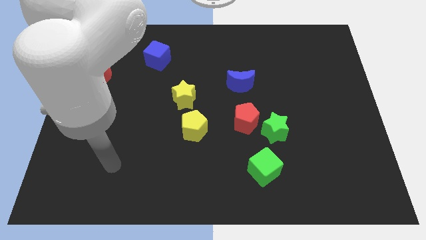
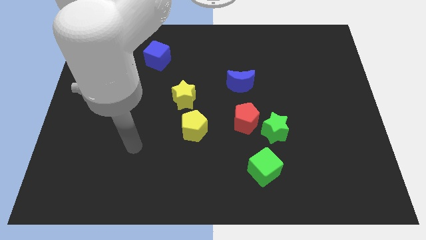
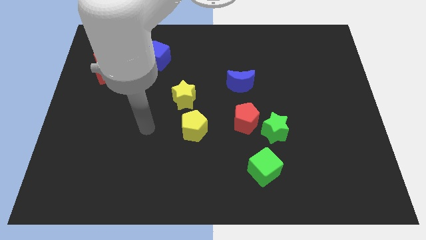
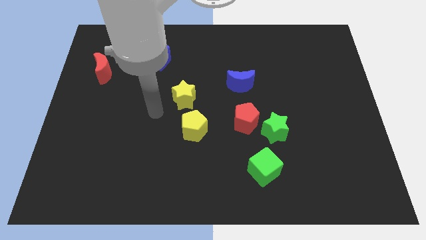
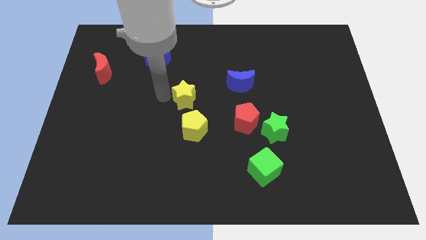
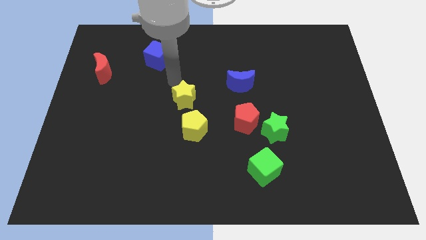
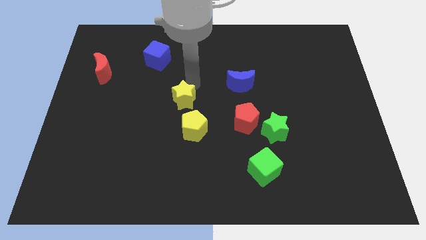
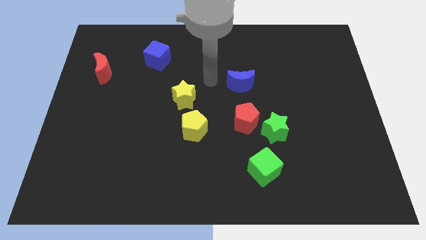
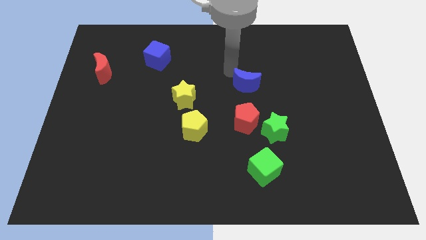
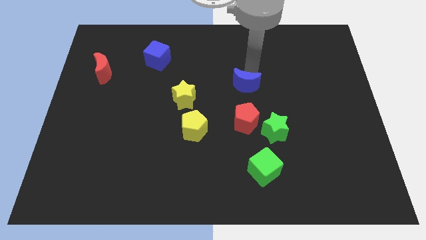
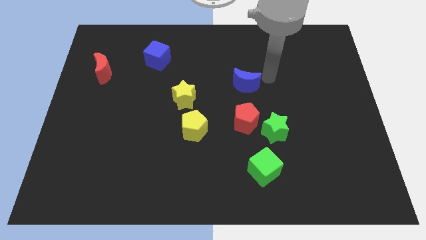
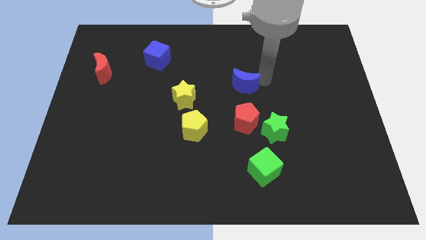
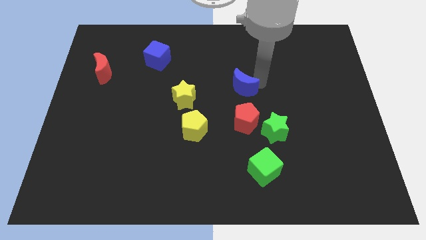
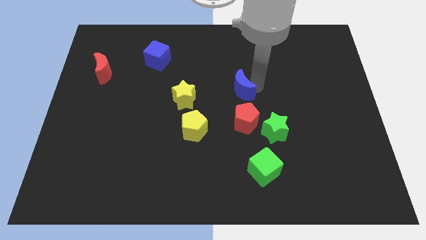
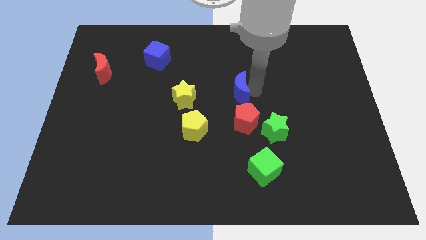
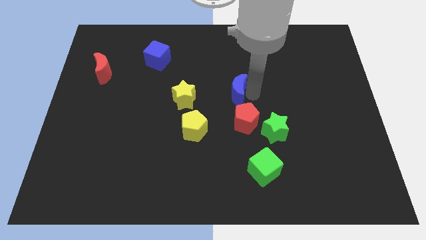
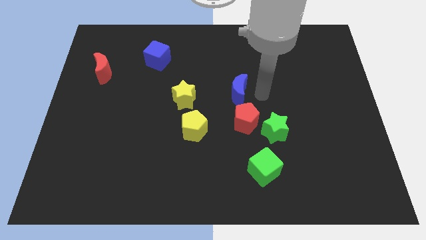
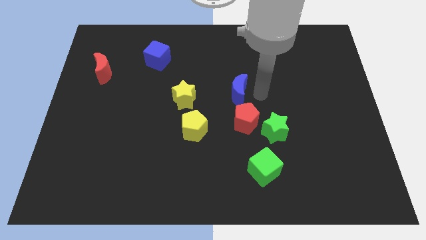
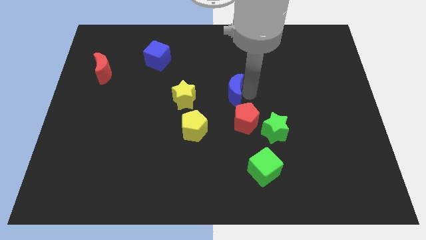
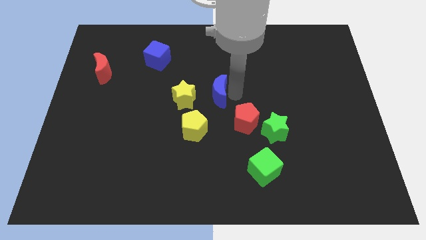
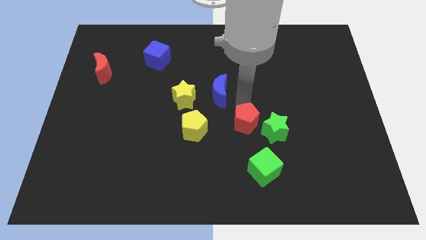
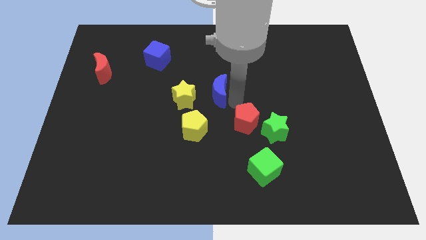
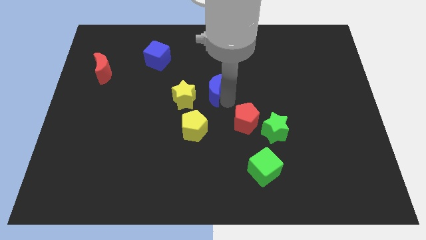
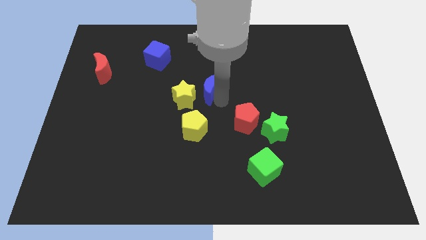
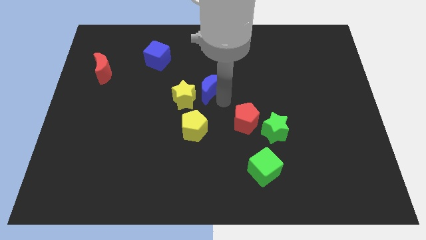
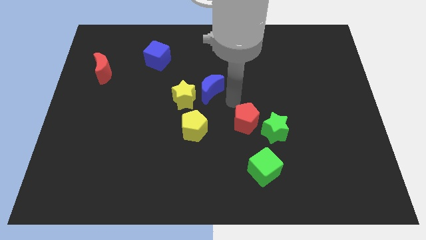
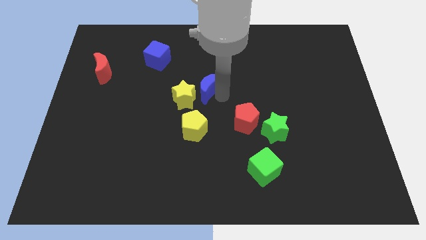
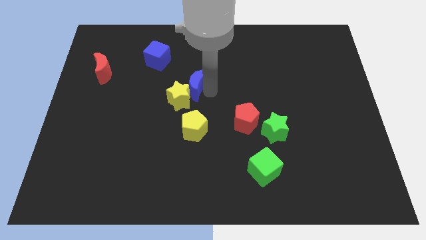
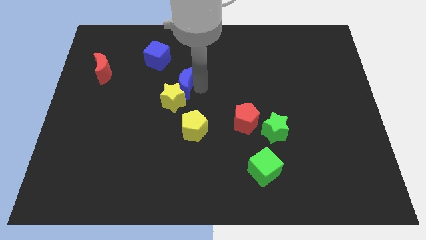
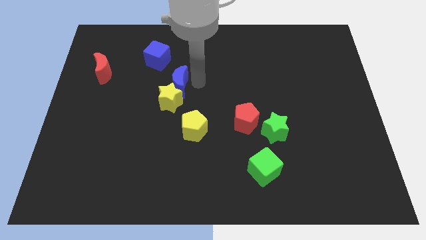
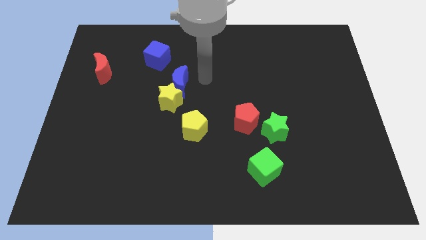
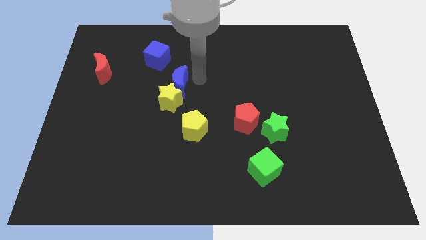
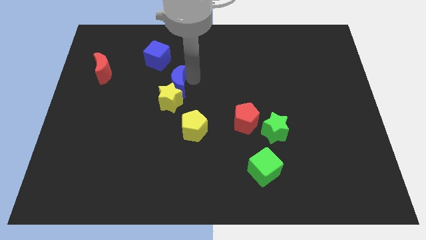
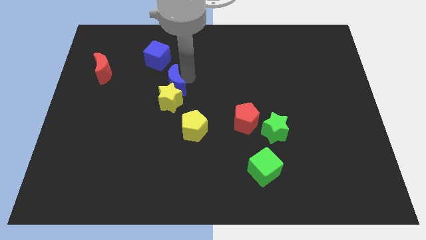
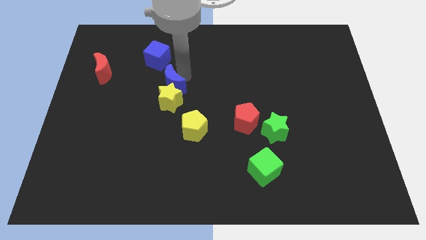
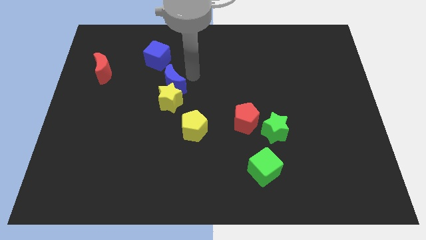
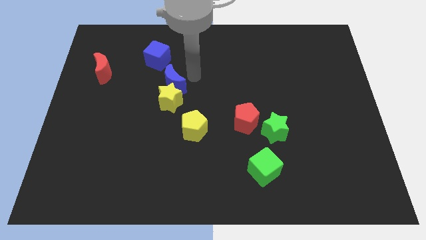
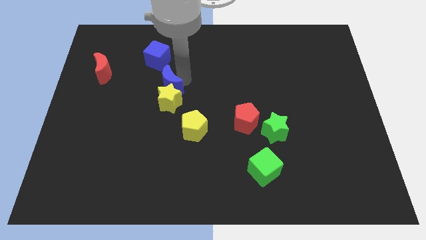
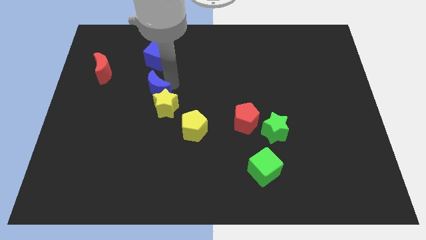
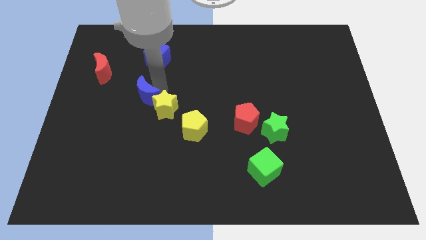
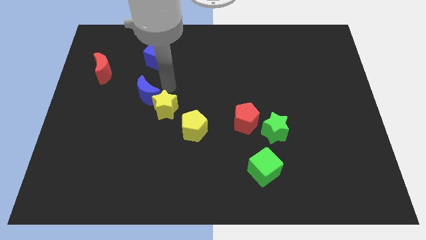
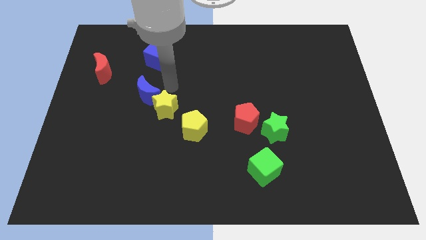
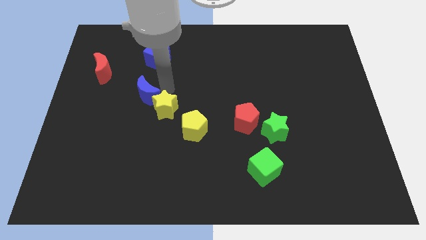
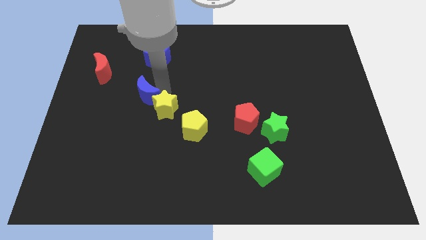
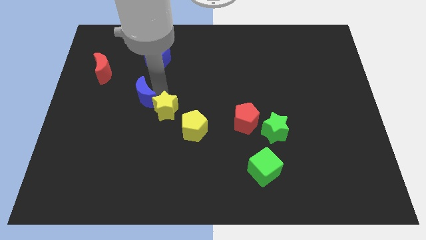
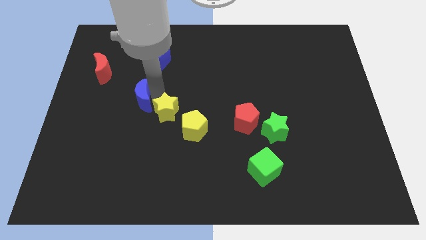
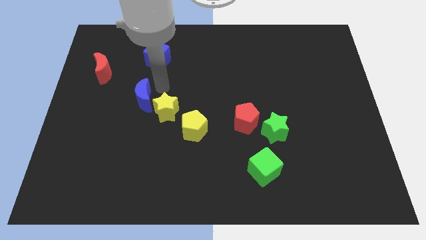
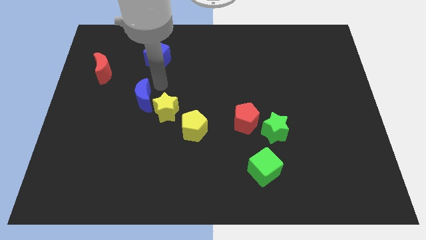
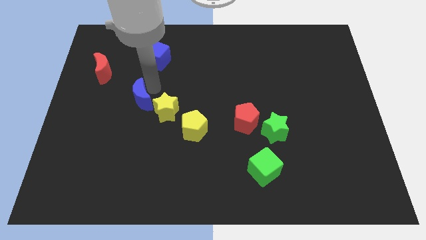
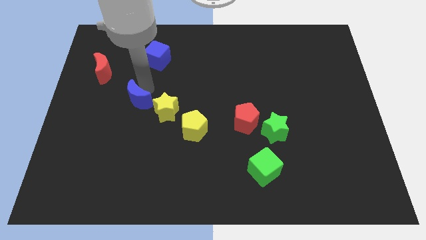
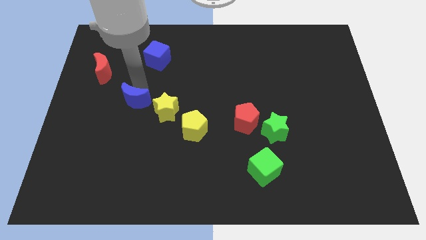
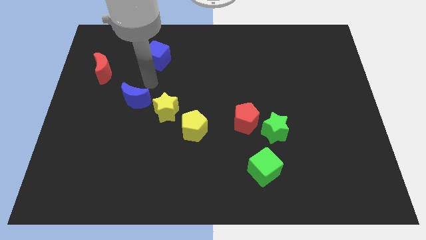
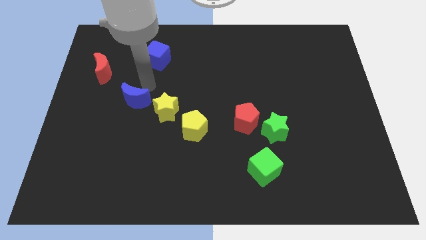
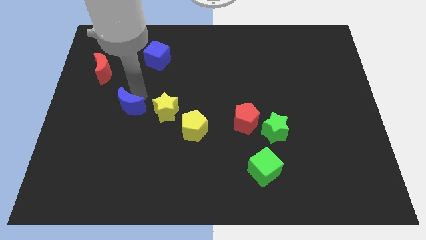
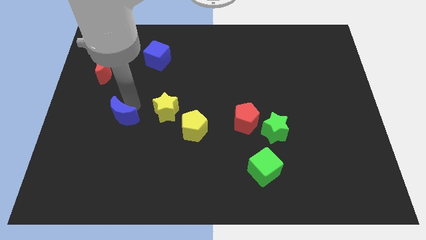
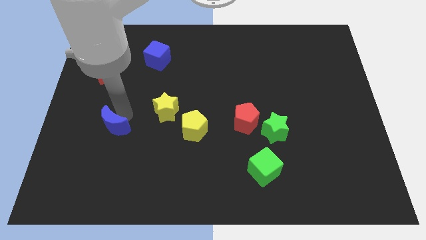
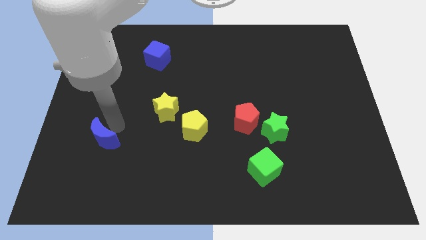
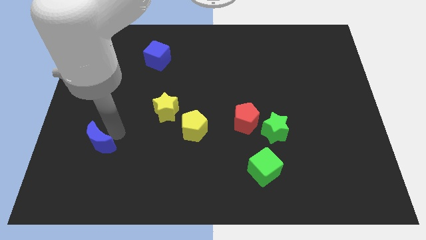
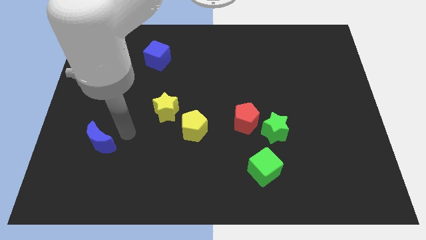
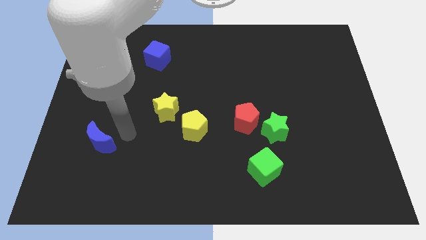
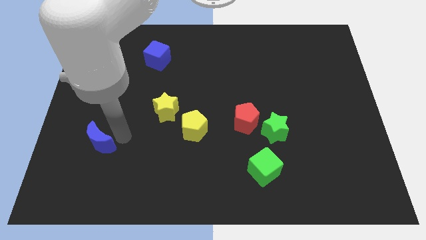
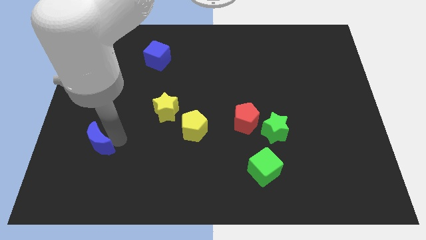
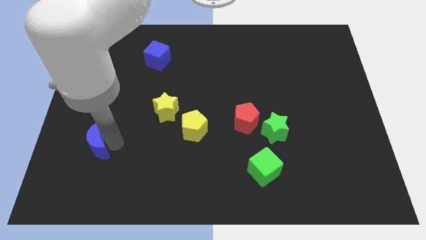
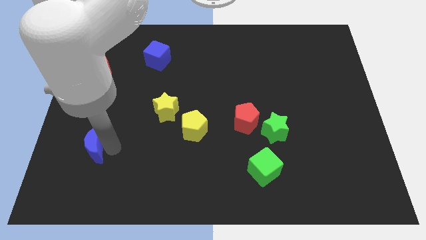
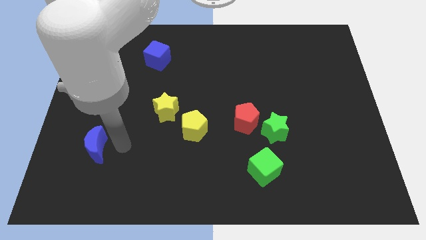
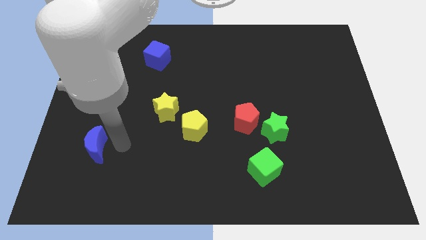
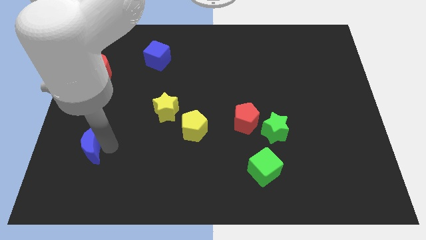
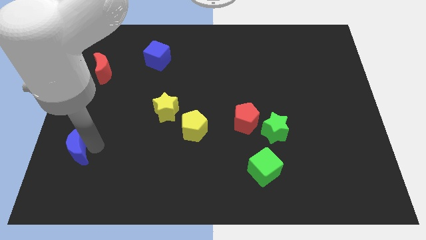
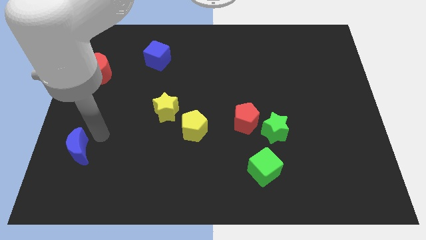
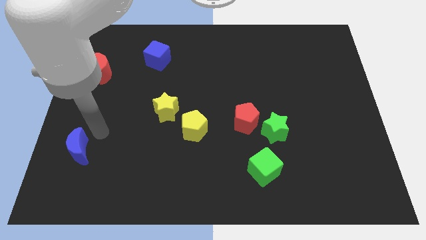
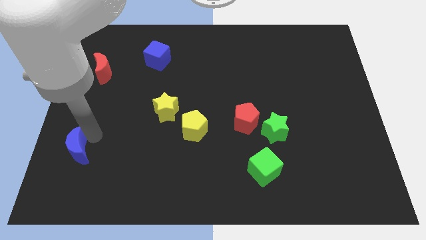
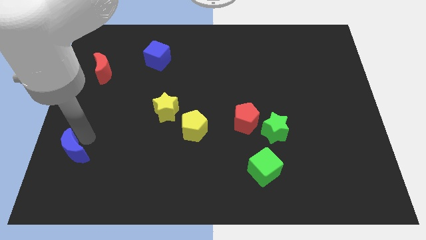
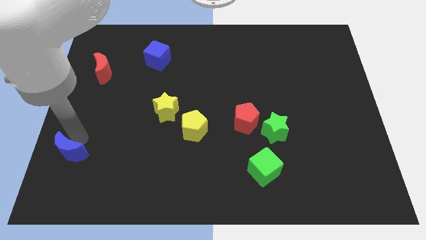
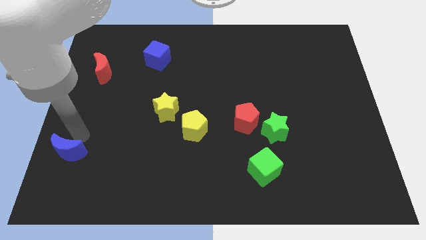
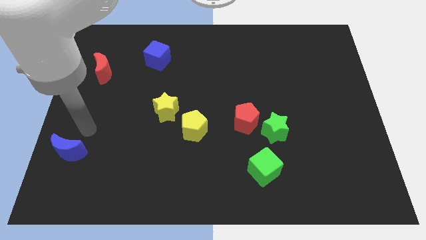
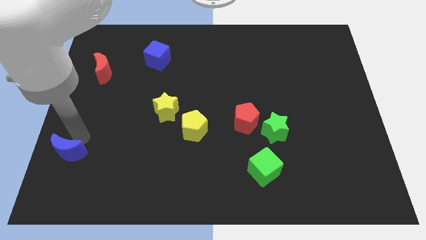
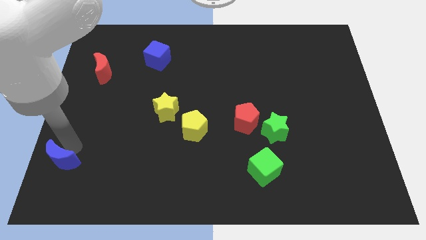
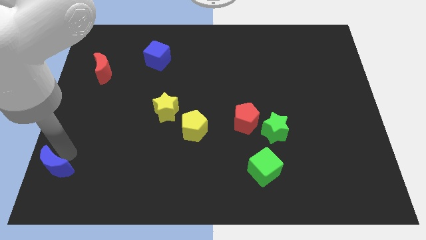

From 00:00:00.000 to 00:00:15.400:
move the blue moon to the bottom left
